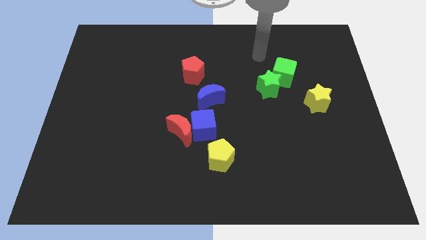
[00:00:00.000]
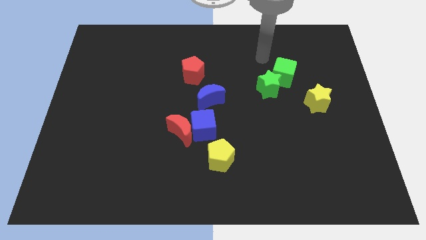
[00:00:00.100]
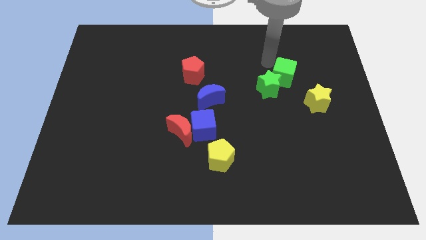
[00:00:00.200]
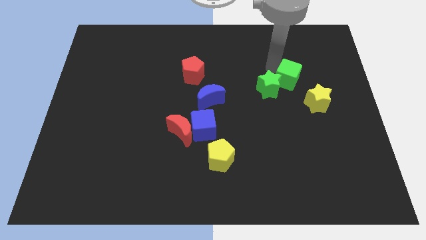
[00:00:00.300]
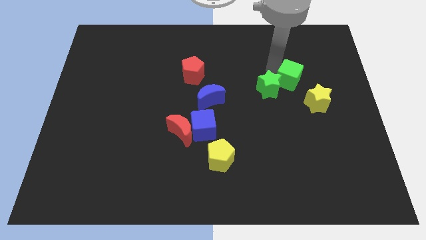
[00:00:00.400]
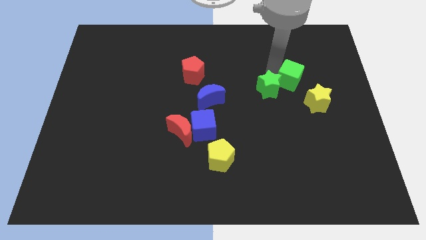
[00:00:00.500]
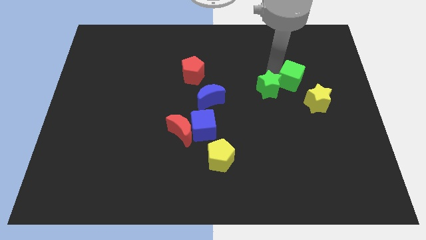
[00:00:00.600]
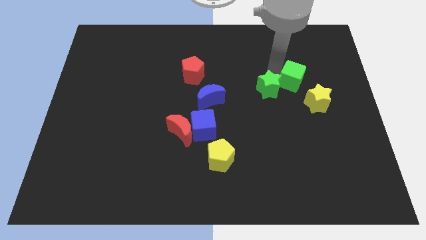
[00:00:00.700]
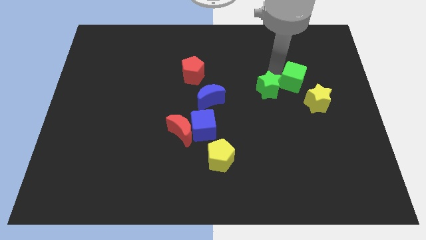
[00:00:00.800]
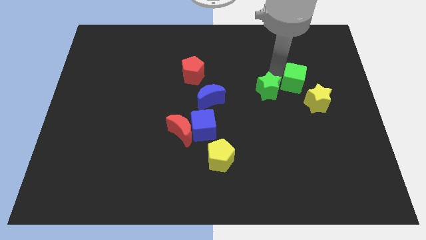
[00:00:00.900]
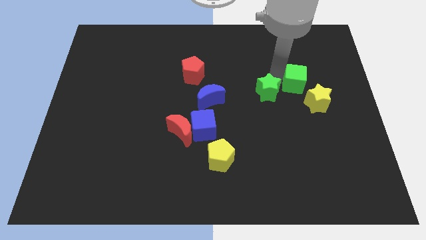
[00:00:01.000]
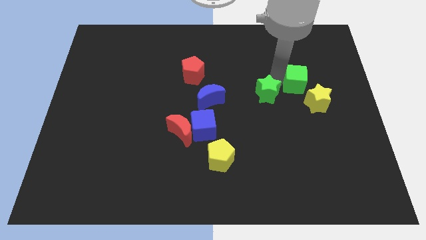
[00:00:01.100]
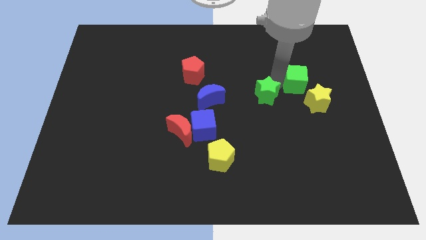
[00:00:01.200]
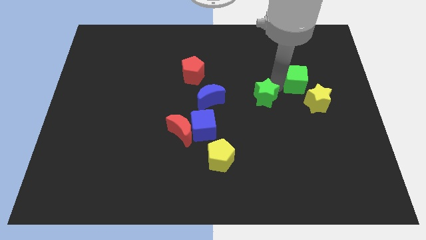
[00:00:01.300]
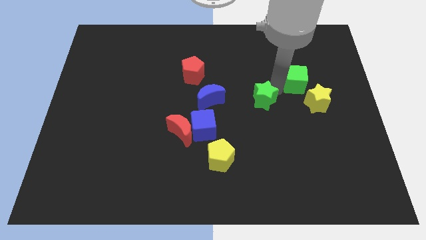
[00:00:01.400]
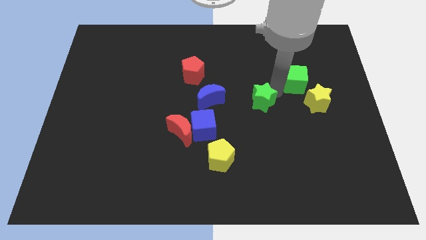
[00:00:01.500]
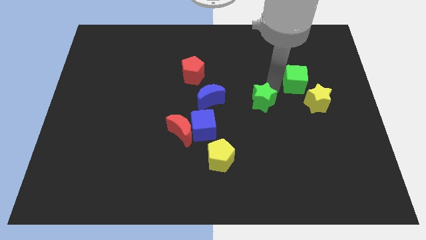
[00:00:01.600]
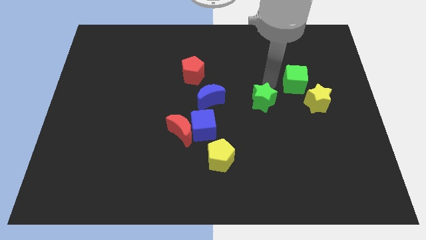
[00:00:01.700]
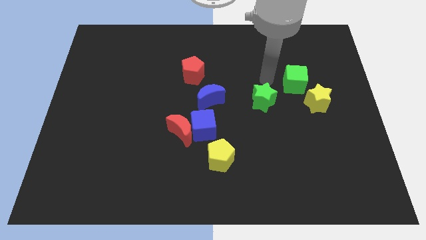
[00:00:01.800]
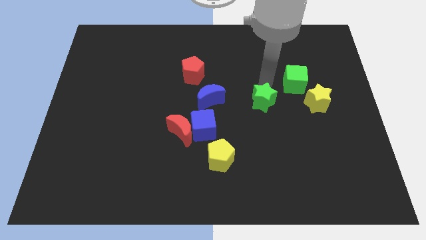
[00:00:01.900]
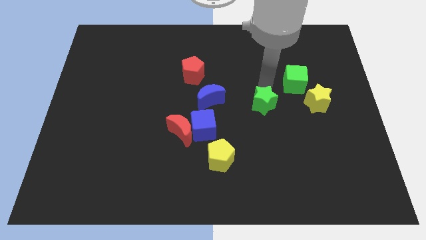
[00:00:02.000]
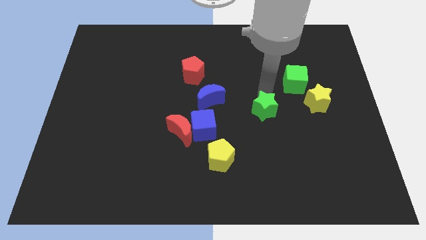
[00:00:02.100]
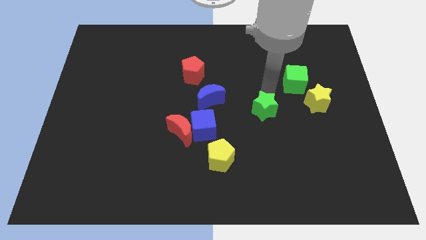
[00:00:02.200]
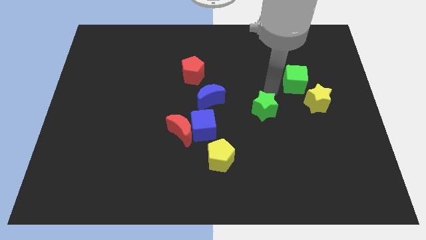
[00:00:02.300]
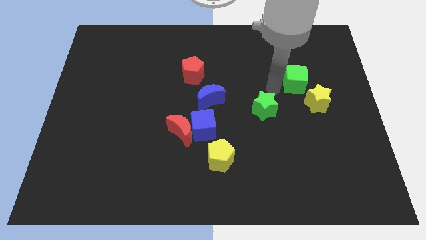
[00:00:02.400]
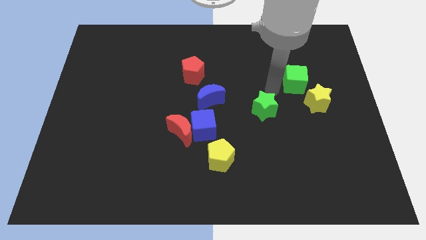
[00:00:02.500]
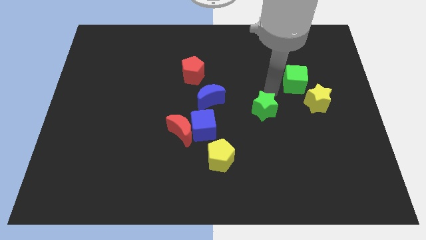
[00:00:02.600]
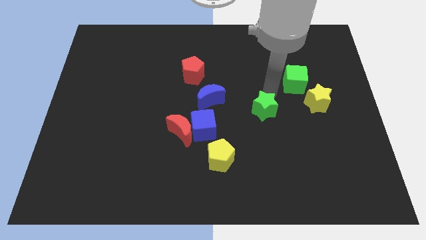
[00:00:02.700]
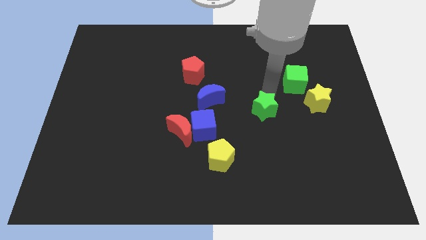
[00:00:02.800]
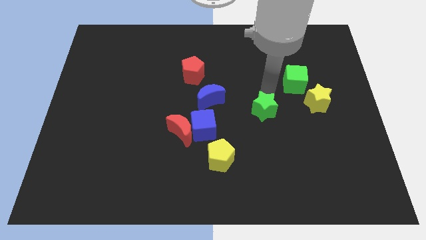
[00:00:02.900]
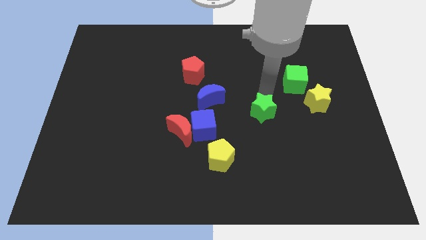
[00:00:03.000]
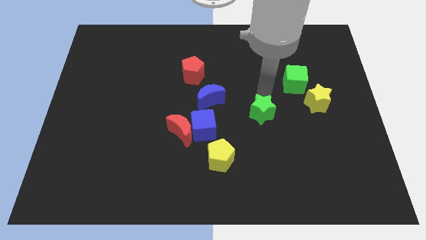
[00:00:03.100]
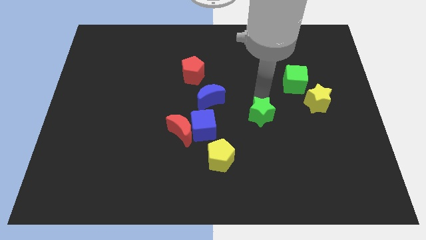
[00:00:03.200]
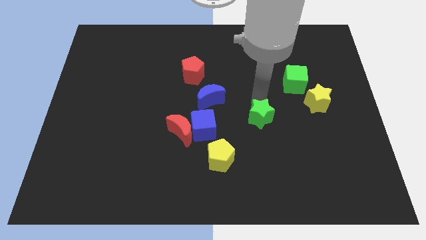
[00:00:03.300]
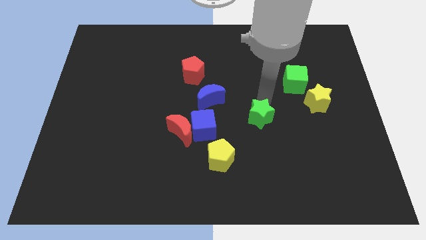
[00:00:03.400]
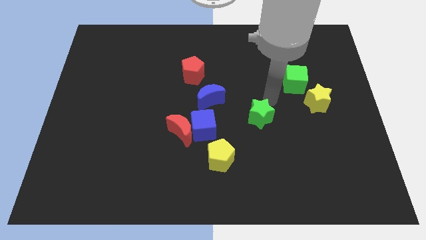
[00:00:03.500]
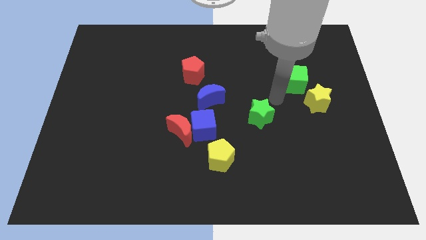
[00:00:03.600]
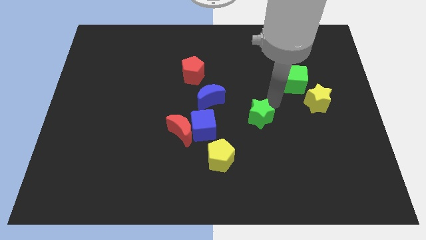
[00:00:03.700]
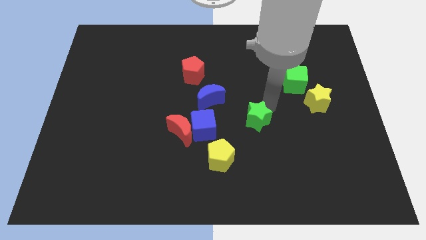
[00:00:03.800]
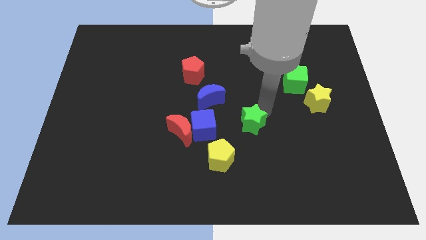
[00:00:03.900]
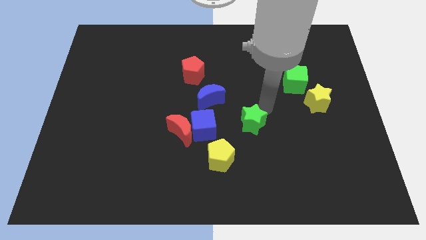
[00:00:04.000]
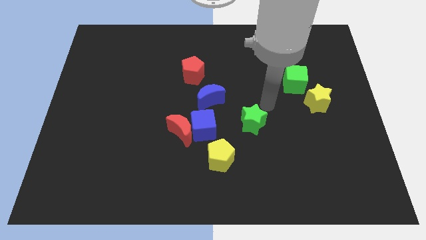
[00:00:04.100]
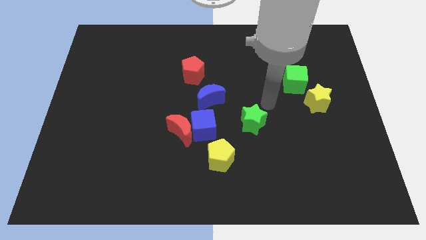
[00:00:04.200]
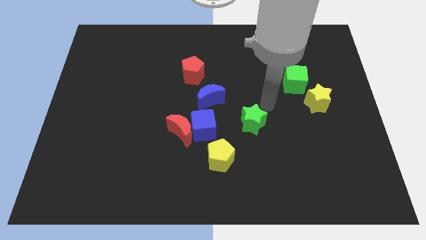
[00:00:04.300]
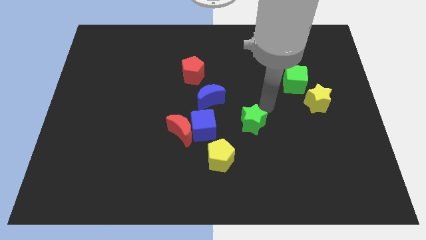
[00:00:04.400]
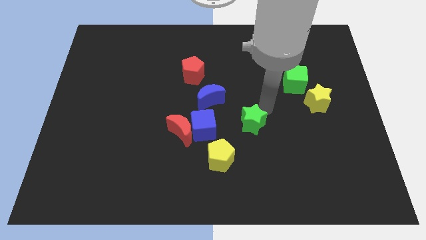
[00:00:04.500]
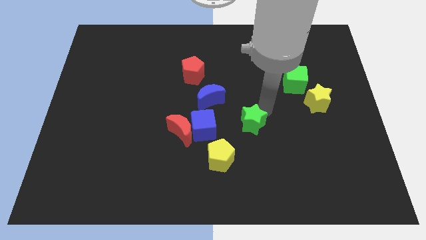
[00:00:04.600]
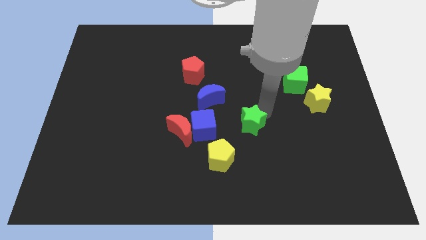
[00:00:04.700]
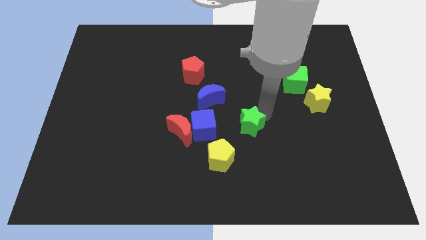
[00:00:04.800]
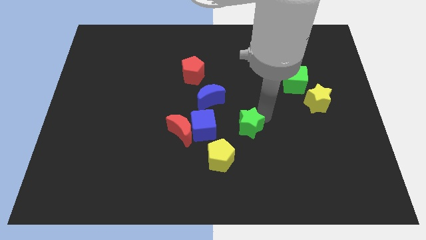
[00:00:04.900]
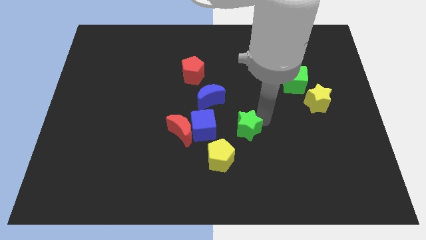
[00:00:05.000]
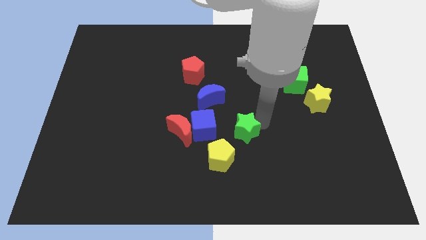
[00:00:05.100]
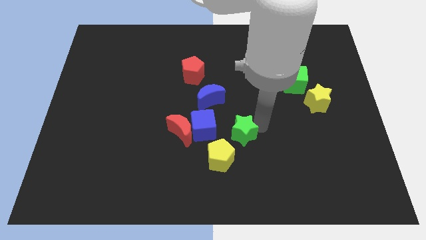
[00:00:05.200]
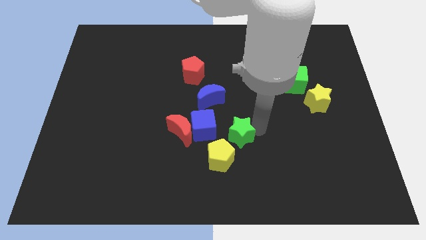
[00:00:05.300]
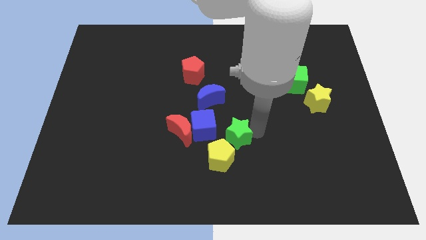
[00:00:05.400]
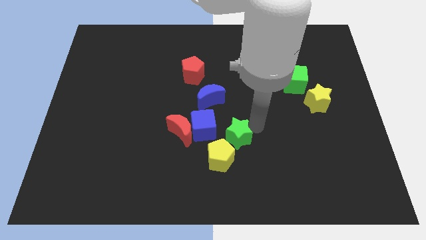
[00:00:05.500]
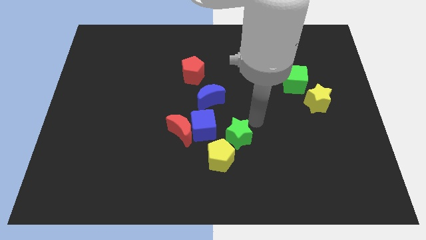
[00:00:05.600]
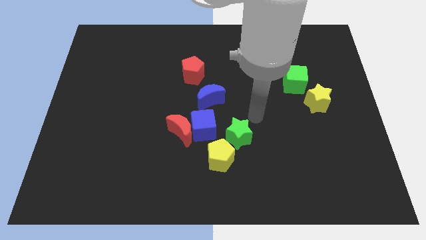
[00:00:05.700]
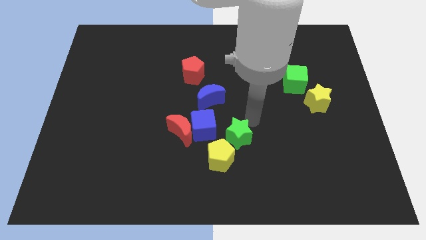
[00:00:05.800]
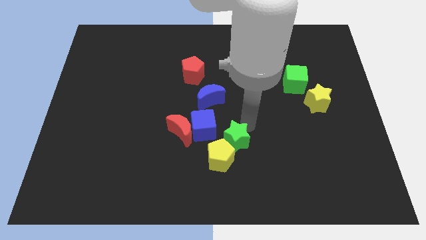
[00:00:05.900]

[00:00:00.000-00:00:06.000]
move the green star to the yellow pentagon
